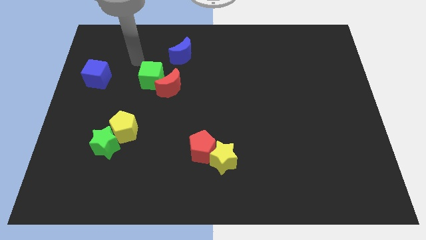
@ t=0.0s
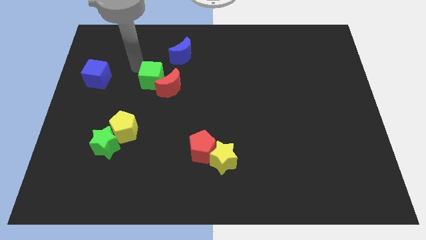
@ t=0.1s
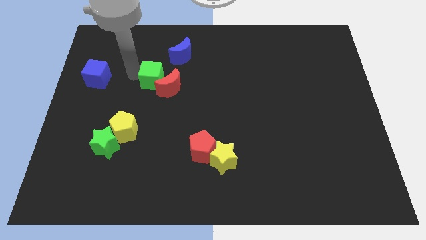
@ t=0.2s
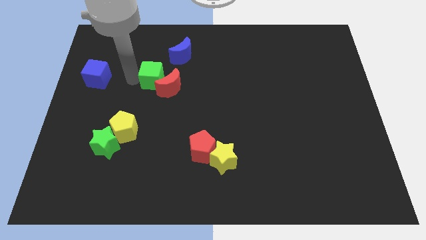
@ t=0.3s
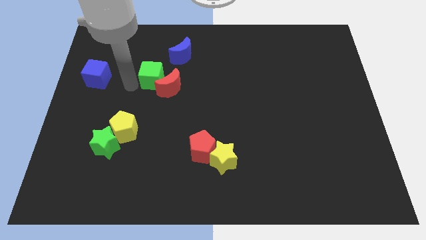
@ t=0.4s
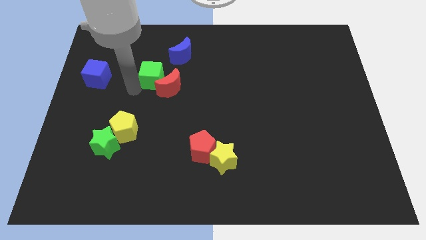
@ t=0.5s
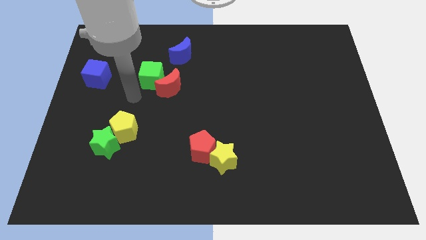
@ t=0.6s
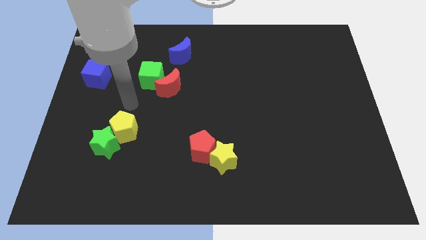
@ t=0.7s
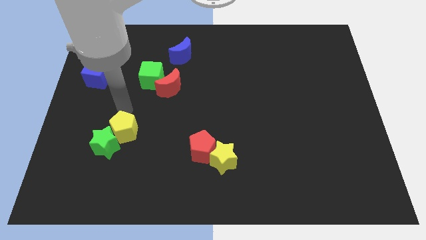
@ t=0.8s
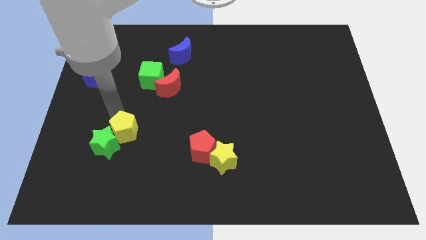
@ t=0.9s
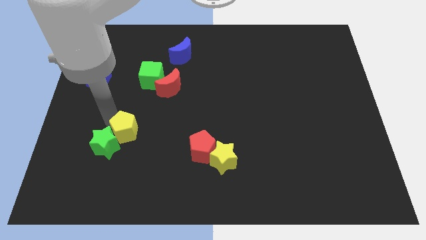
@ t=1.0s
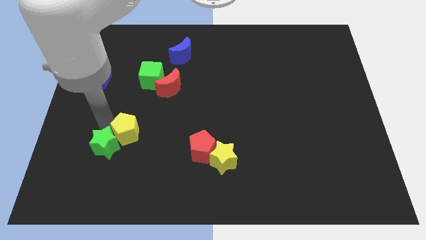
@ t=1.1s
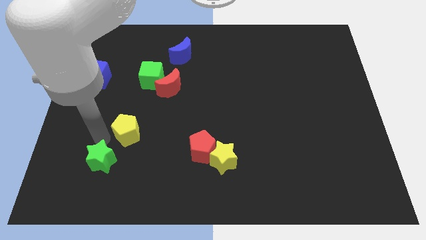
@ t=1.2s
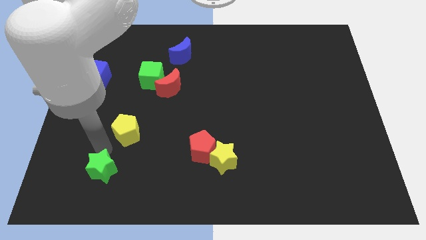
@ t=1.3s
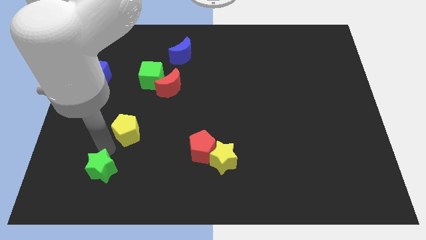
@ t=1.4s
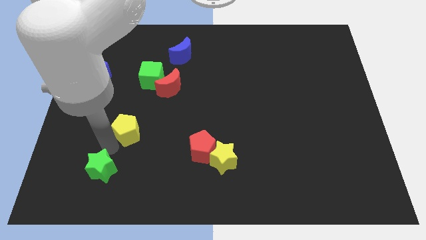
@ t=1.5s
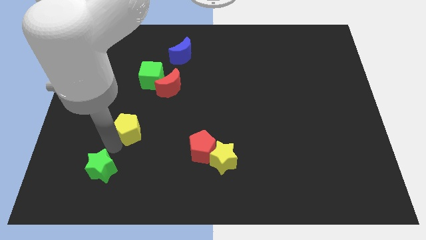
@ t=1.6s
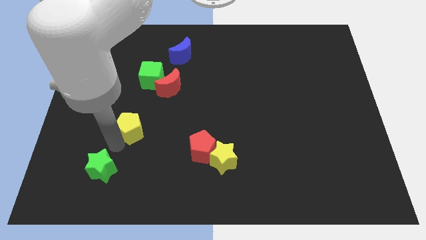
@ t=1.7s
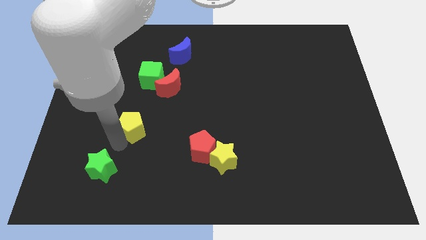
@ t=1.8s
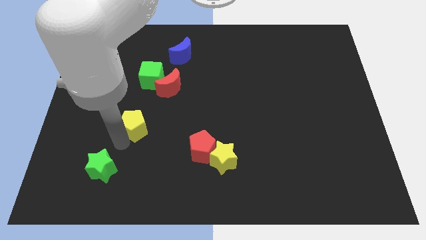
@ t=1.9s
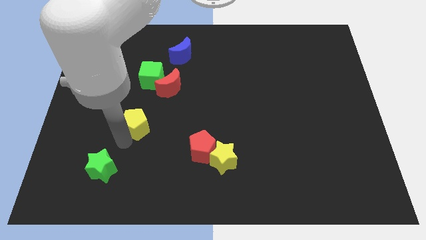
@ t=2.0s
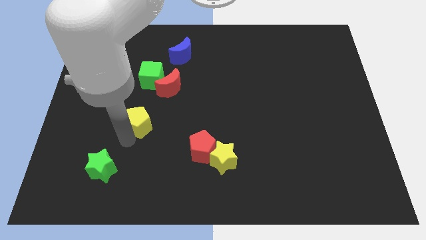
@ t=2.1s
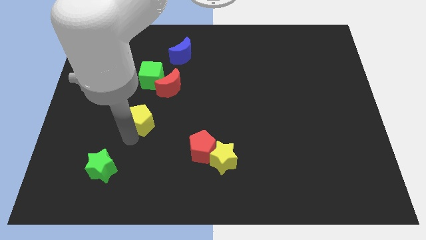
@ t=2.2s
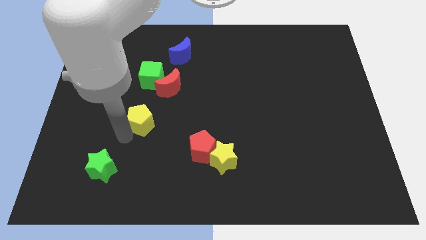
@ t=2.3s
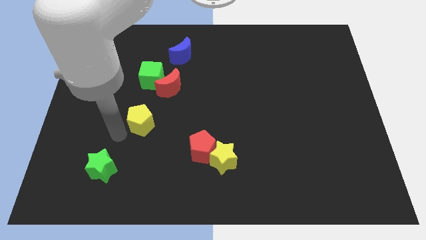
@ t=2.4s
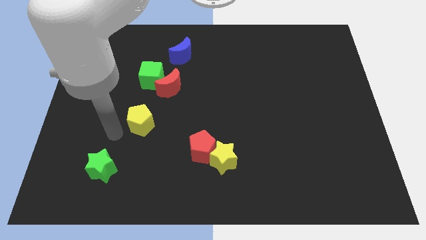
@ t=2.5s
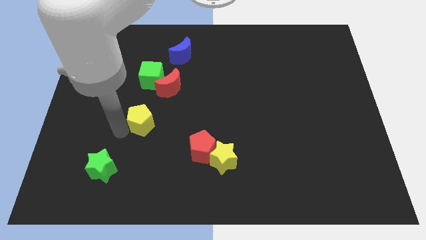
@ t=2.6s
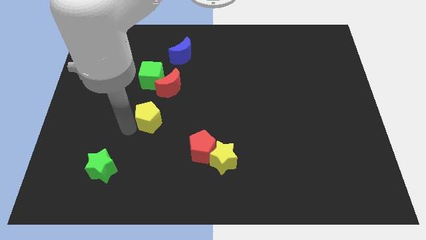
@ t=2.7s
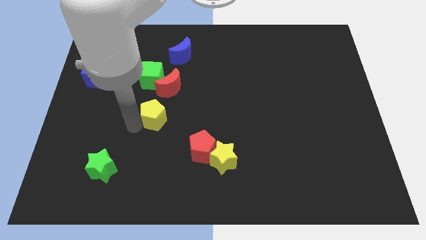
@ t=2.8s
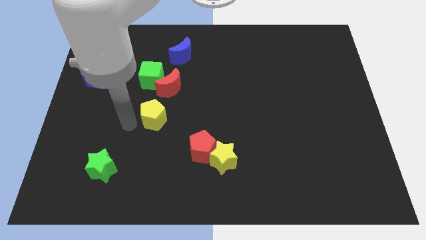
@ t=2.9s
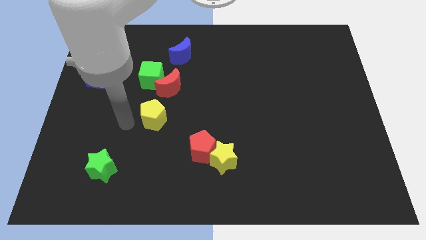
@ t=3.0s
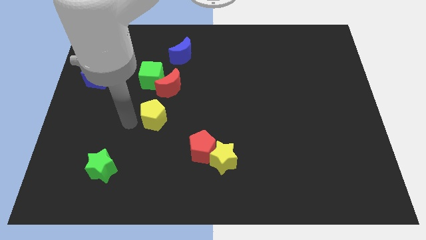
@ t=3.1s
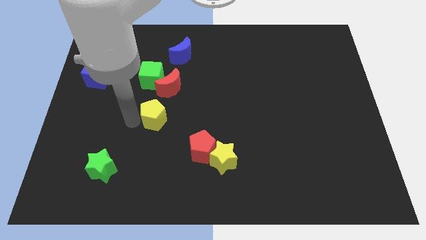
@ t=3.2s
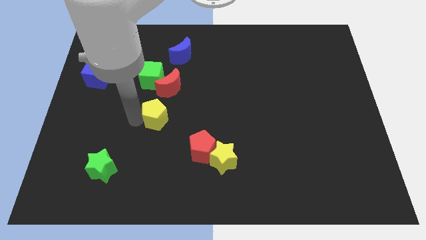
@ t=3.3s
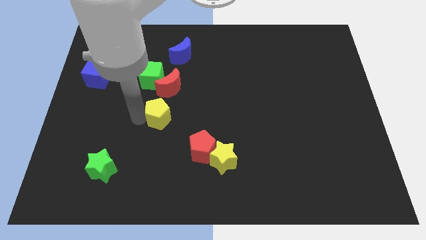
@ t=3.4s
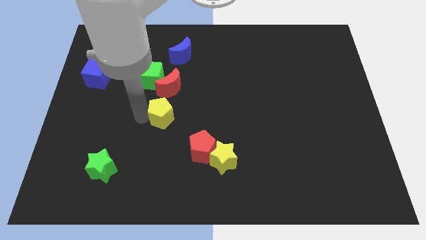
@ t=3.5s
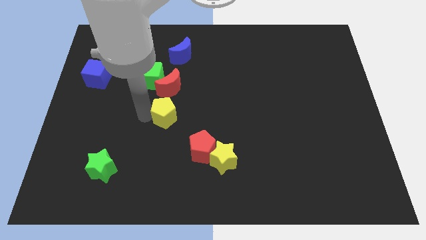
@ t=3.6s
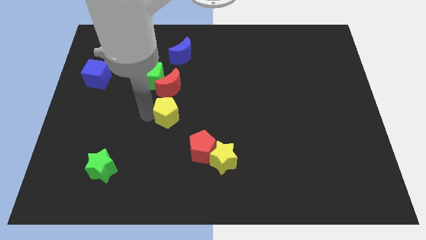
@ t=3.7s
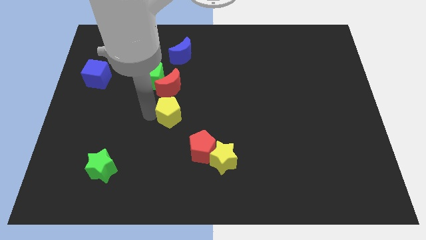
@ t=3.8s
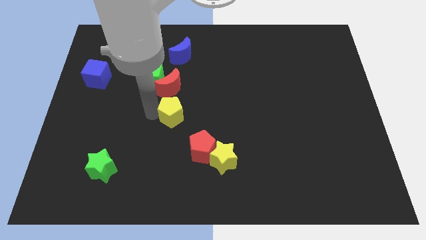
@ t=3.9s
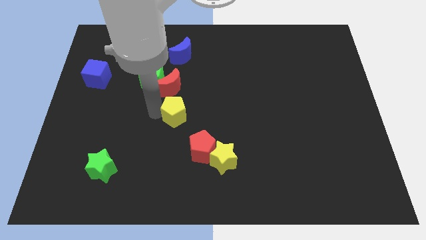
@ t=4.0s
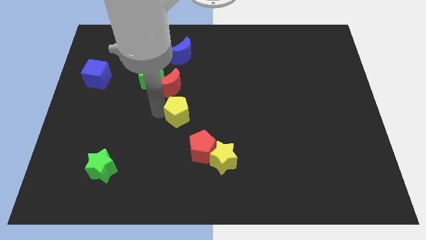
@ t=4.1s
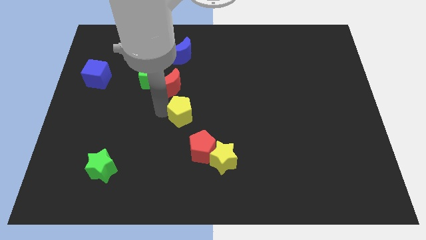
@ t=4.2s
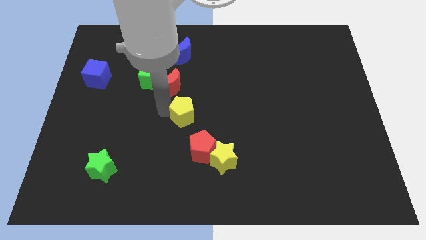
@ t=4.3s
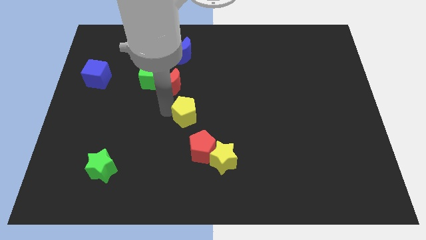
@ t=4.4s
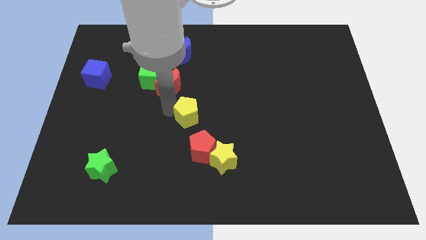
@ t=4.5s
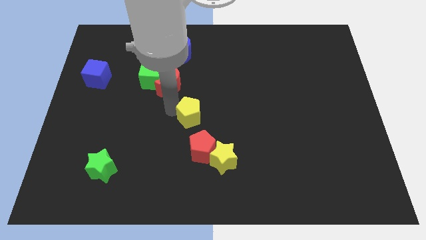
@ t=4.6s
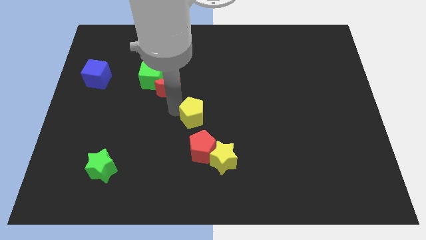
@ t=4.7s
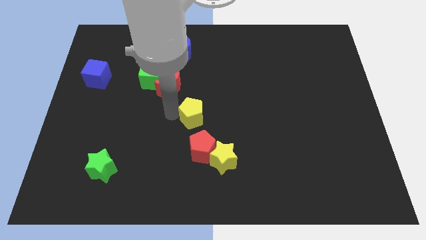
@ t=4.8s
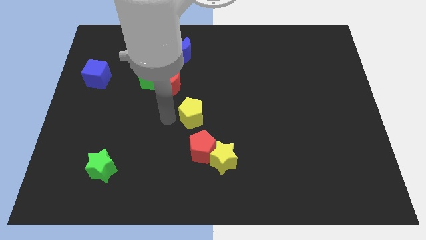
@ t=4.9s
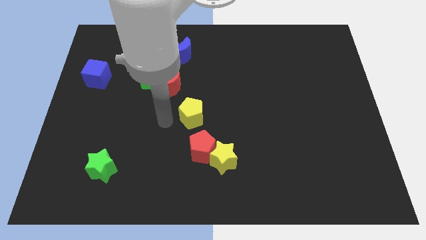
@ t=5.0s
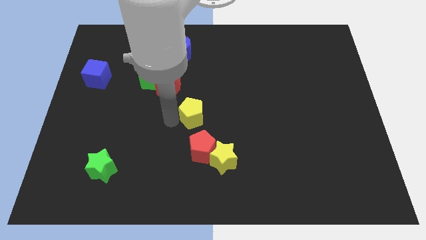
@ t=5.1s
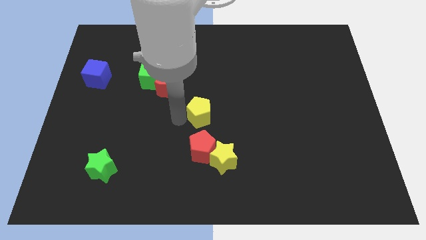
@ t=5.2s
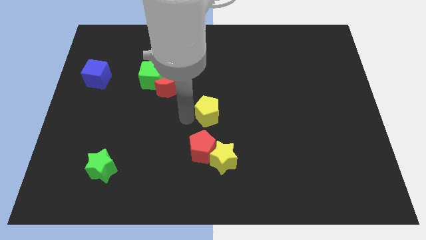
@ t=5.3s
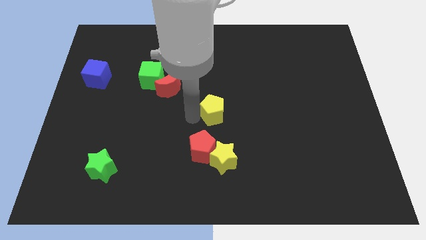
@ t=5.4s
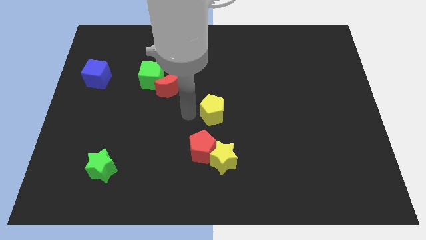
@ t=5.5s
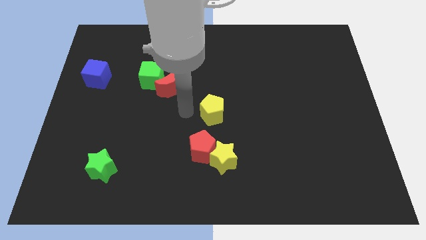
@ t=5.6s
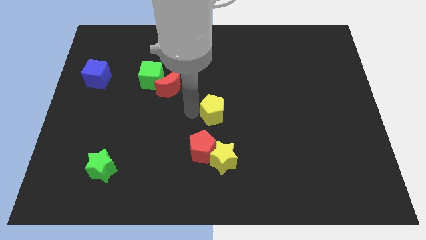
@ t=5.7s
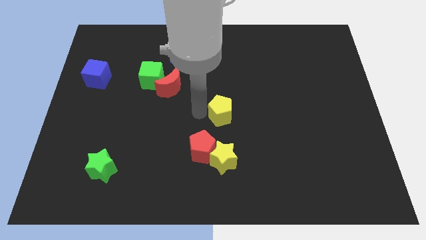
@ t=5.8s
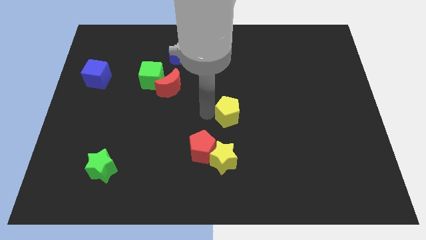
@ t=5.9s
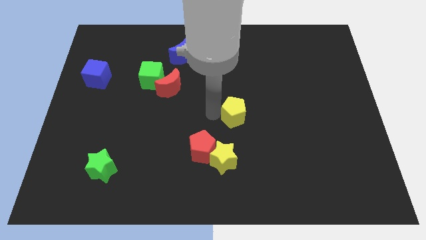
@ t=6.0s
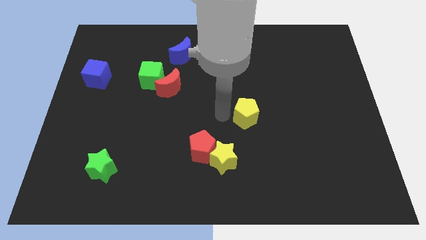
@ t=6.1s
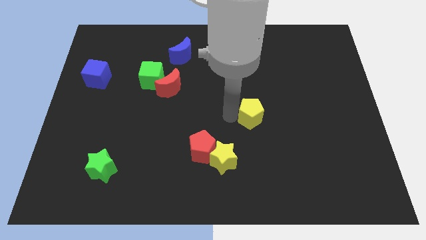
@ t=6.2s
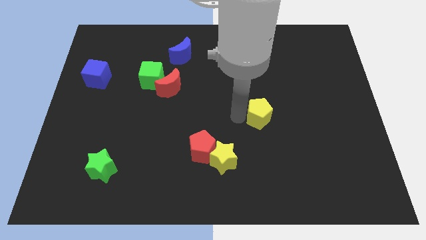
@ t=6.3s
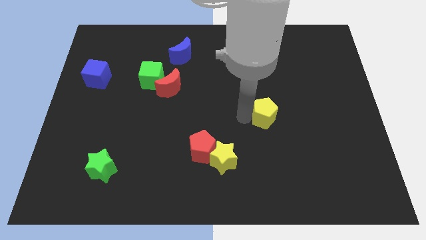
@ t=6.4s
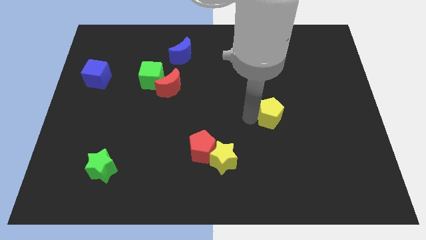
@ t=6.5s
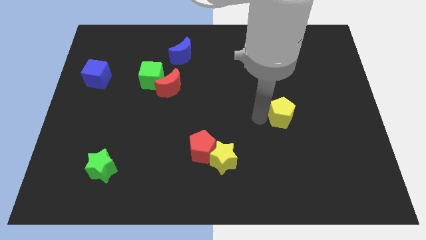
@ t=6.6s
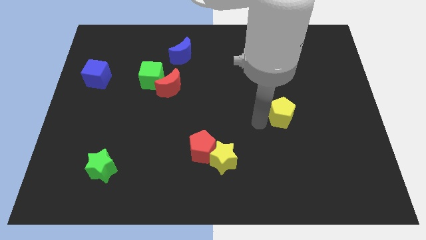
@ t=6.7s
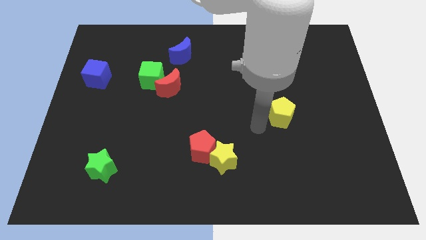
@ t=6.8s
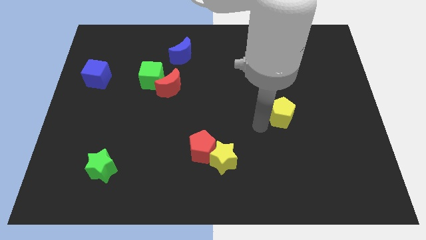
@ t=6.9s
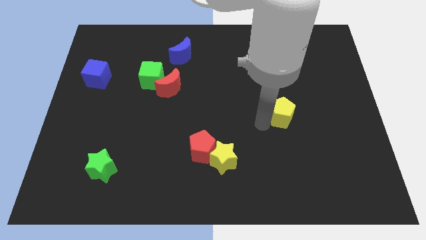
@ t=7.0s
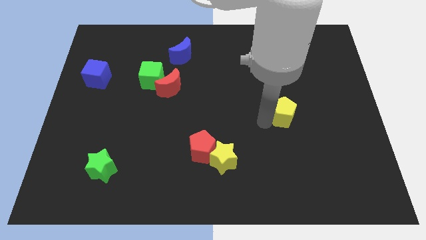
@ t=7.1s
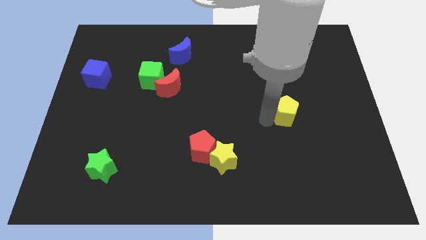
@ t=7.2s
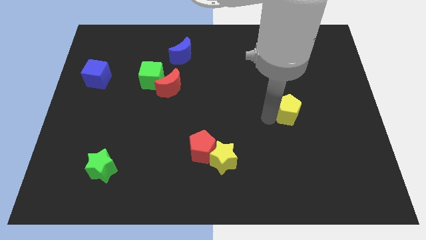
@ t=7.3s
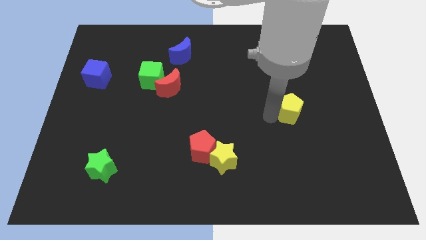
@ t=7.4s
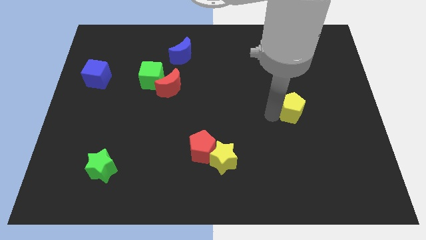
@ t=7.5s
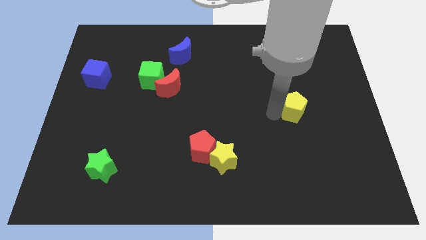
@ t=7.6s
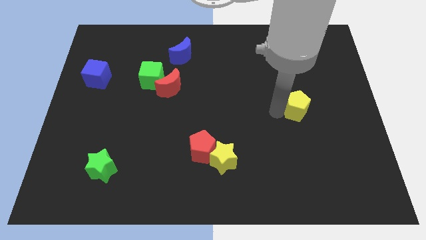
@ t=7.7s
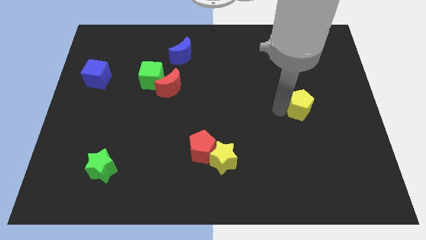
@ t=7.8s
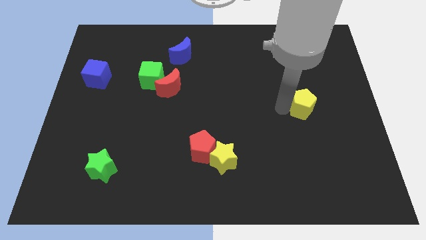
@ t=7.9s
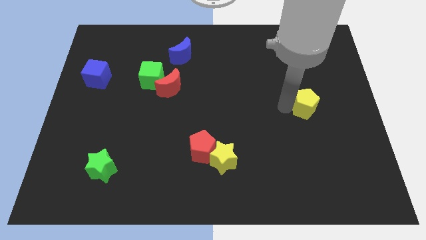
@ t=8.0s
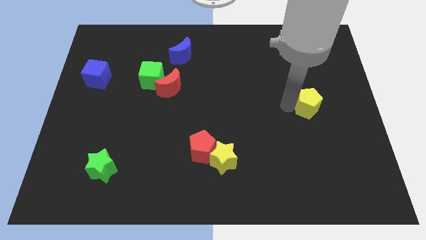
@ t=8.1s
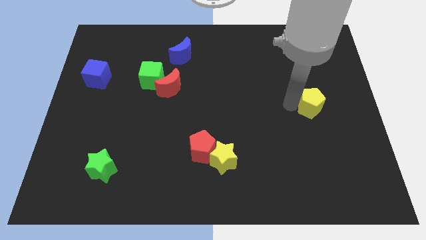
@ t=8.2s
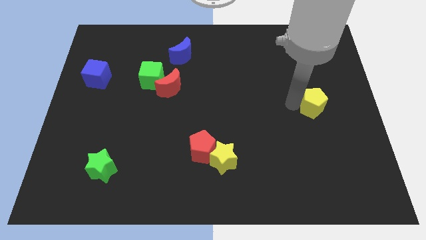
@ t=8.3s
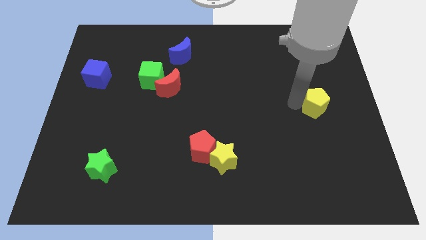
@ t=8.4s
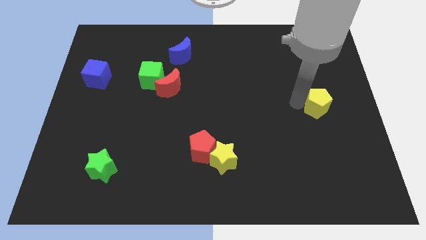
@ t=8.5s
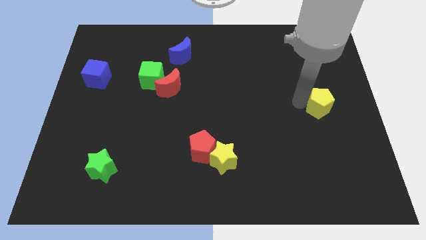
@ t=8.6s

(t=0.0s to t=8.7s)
push the yellow pentagon to the right side
